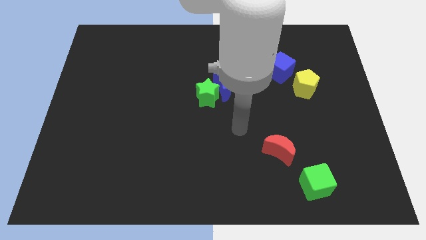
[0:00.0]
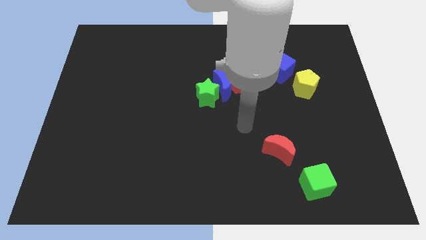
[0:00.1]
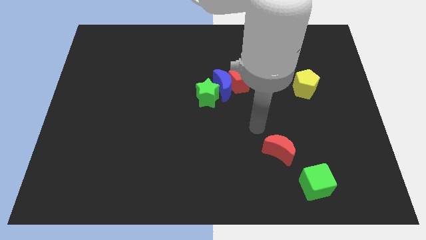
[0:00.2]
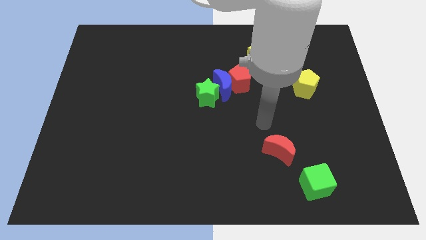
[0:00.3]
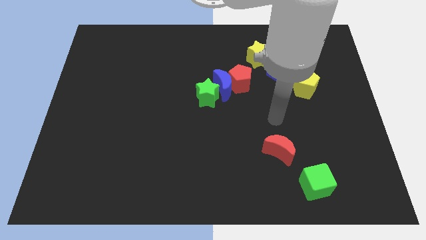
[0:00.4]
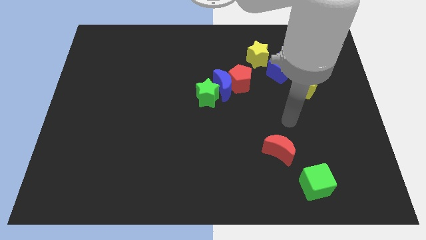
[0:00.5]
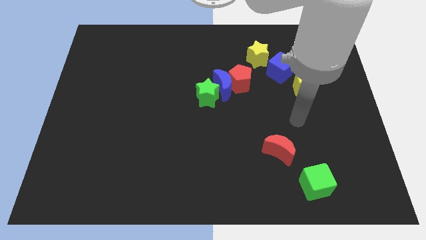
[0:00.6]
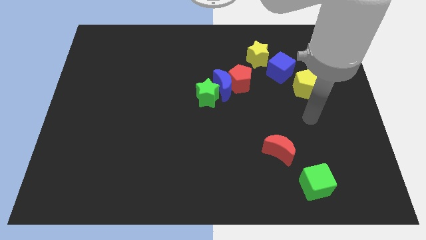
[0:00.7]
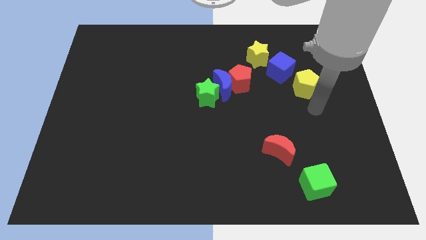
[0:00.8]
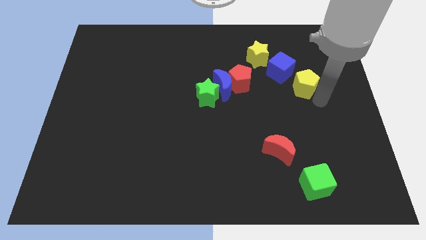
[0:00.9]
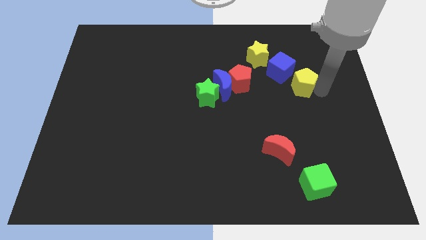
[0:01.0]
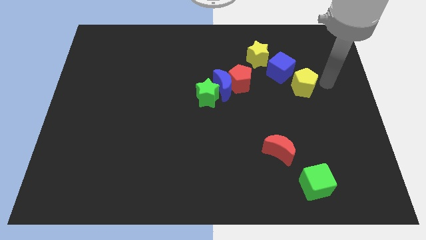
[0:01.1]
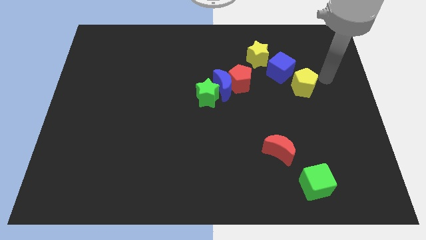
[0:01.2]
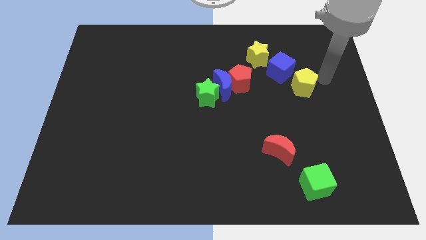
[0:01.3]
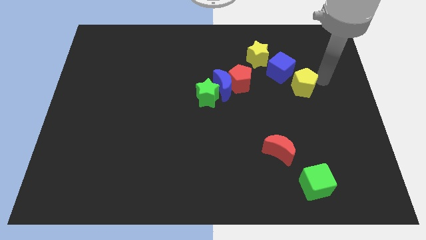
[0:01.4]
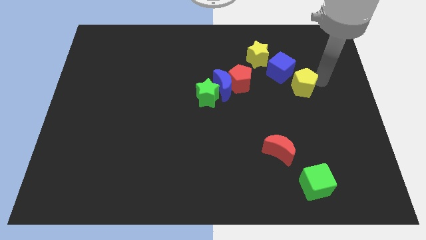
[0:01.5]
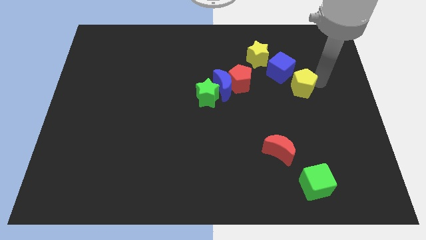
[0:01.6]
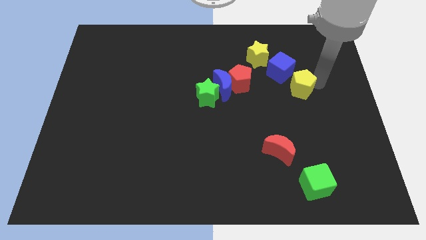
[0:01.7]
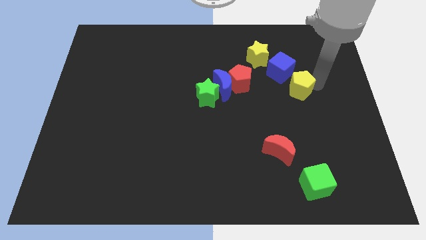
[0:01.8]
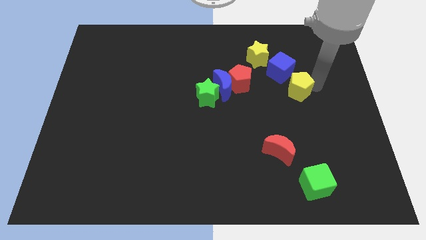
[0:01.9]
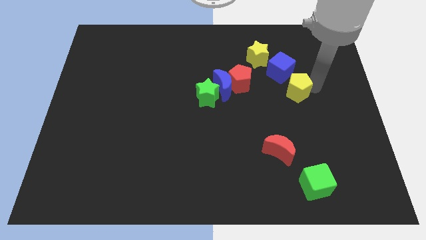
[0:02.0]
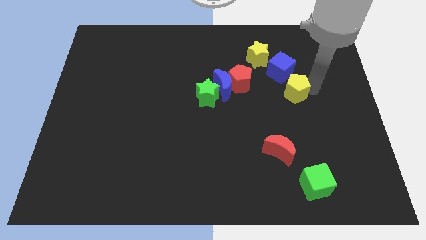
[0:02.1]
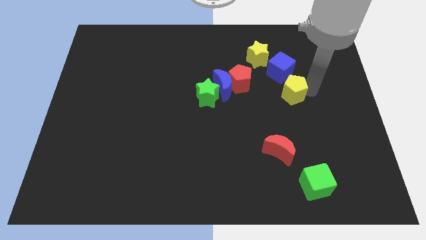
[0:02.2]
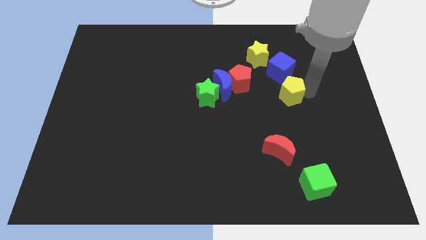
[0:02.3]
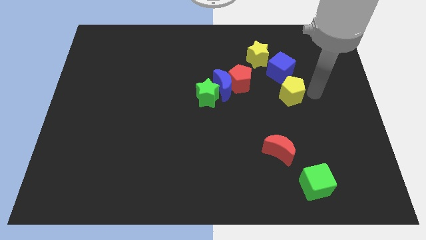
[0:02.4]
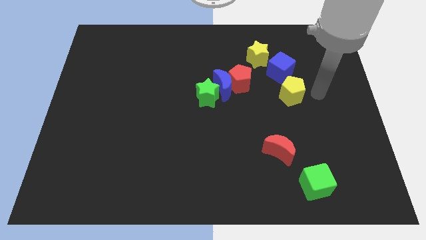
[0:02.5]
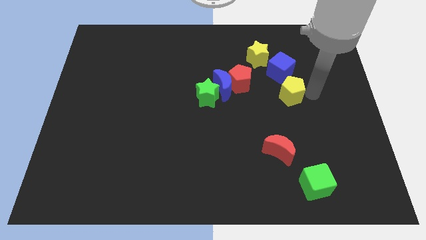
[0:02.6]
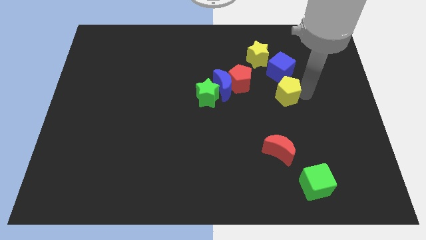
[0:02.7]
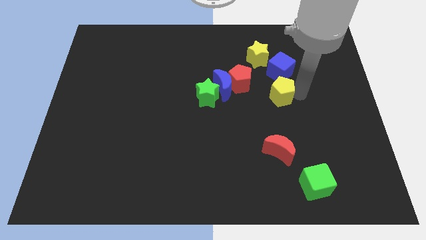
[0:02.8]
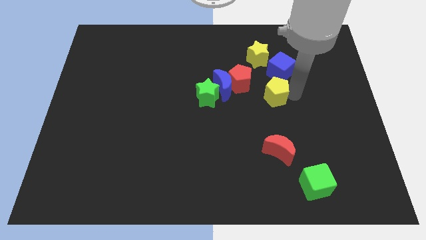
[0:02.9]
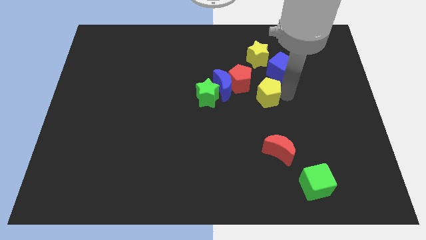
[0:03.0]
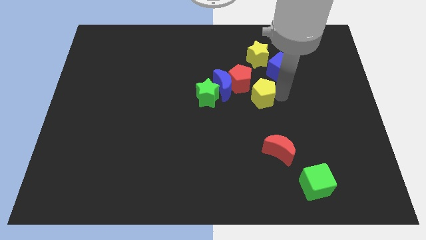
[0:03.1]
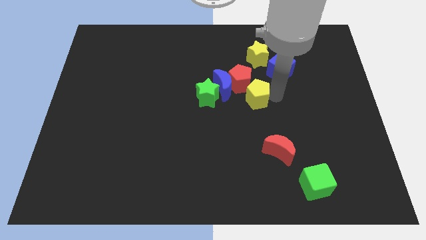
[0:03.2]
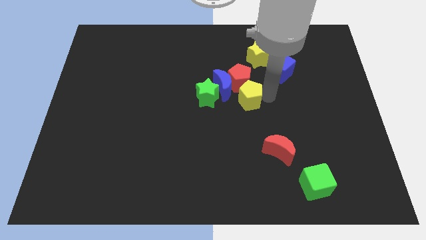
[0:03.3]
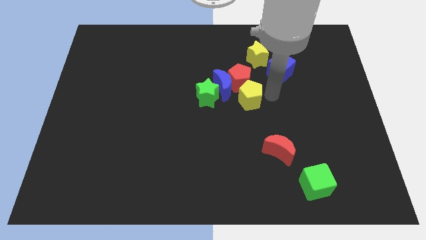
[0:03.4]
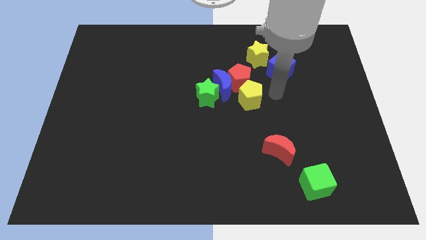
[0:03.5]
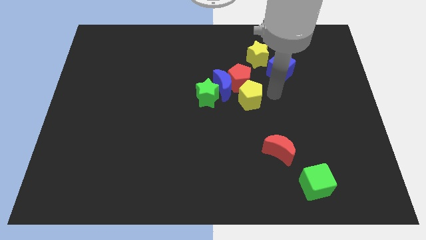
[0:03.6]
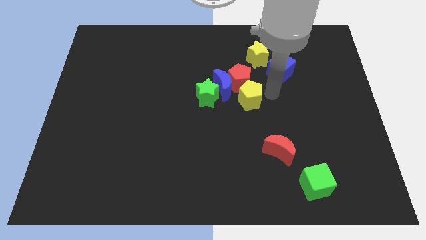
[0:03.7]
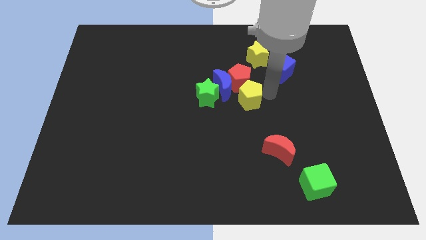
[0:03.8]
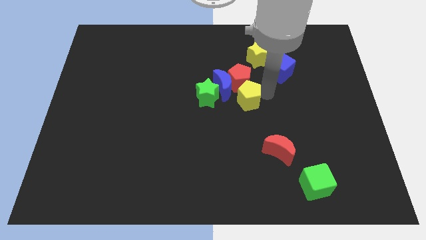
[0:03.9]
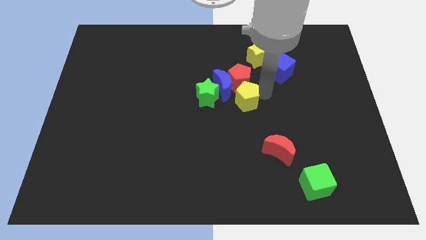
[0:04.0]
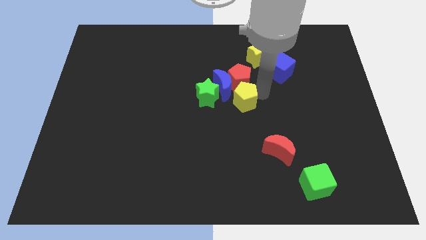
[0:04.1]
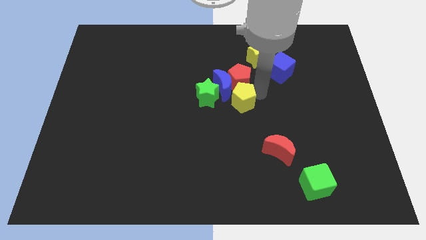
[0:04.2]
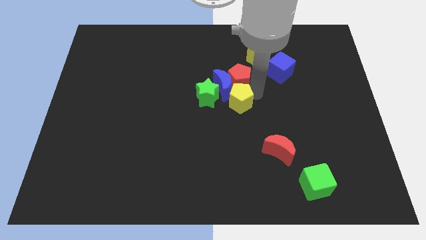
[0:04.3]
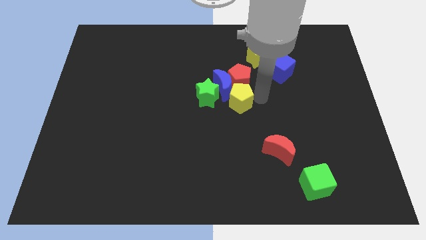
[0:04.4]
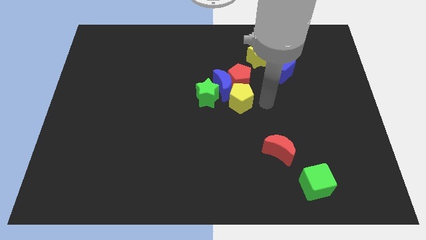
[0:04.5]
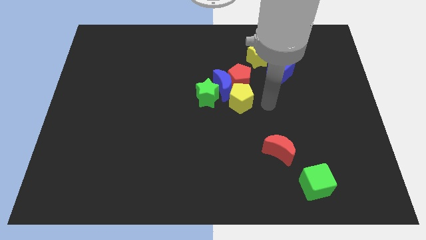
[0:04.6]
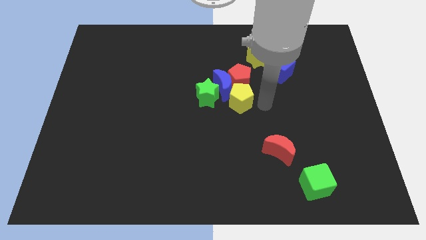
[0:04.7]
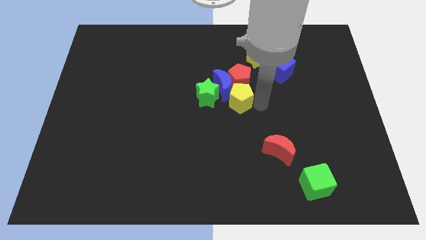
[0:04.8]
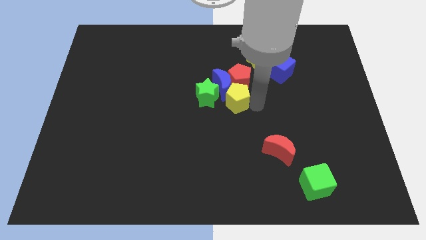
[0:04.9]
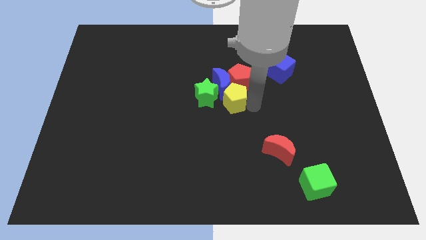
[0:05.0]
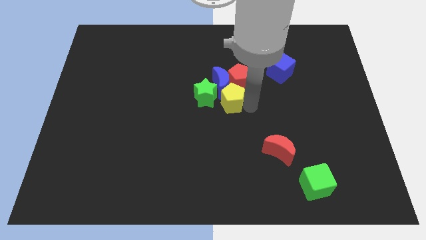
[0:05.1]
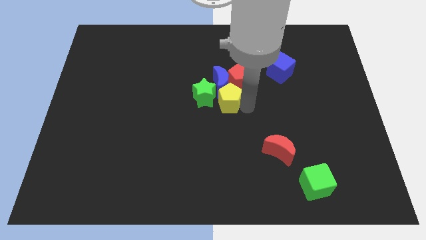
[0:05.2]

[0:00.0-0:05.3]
move the yellow pentagon next to the green star

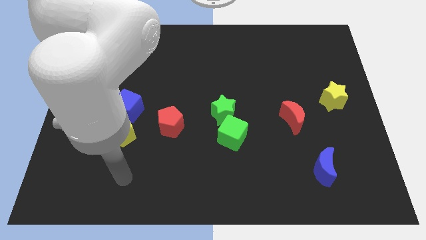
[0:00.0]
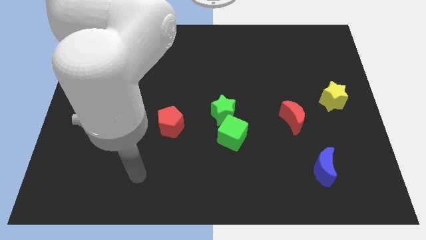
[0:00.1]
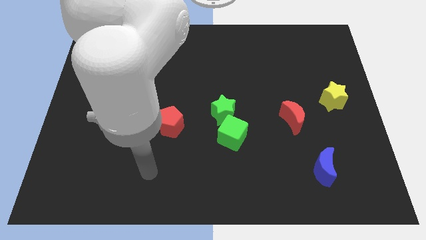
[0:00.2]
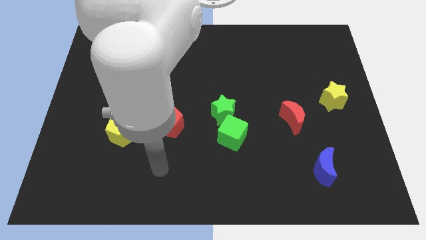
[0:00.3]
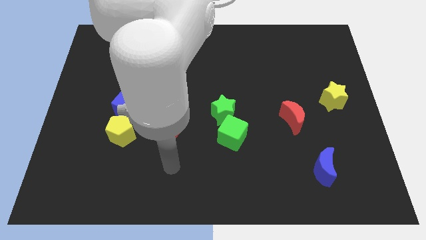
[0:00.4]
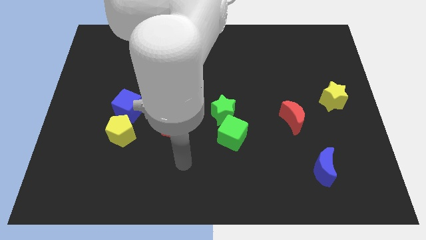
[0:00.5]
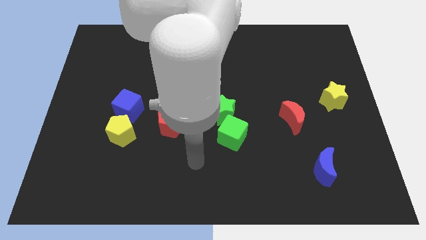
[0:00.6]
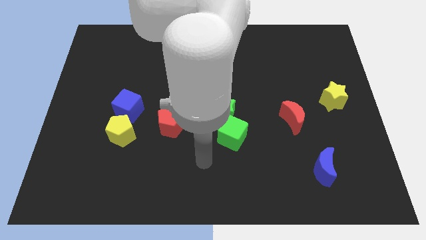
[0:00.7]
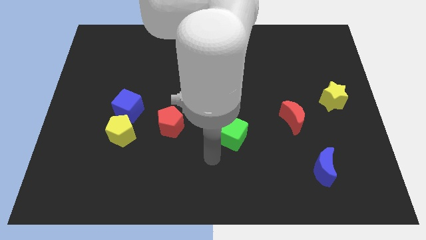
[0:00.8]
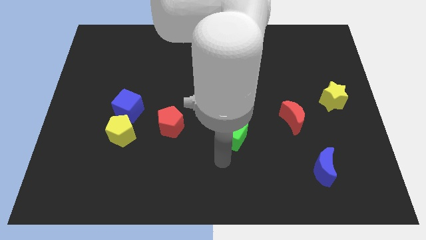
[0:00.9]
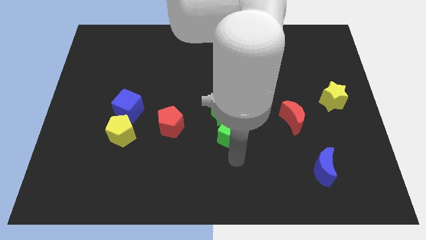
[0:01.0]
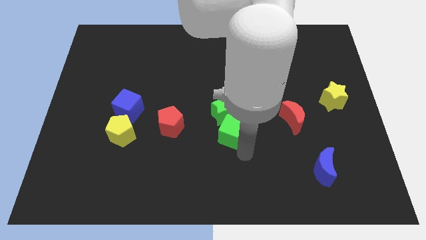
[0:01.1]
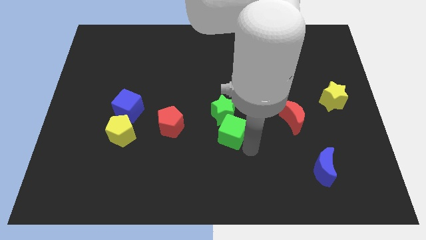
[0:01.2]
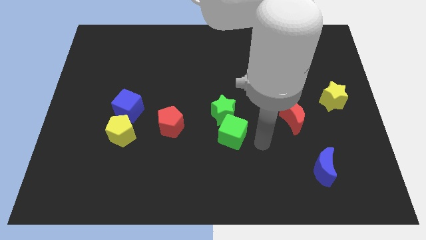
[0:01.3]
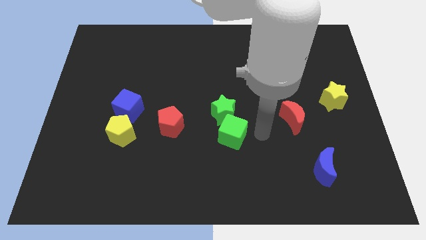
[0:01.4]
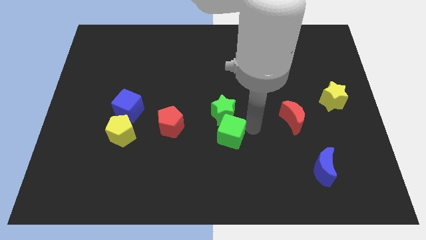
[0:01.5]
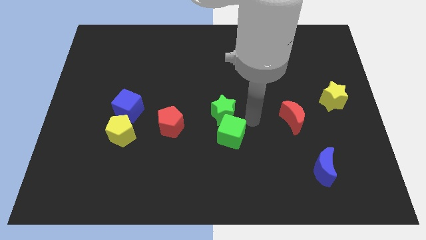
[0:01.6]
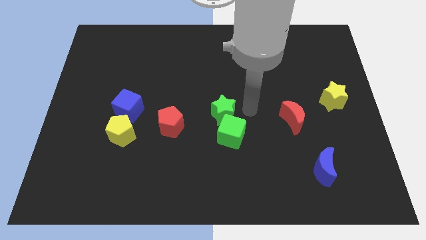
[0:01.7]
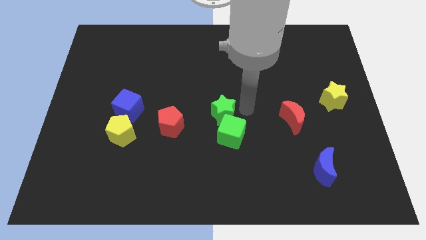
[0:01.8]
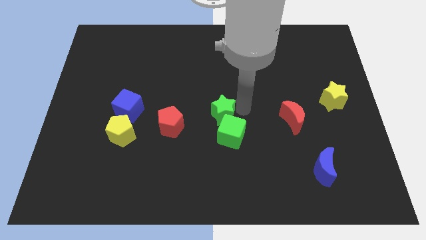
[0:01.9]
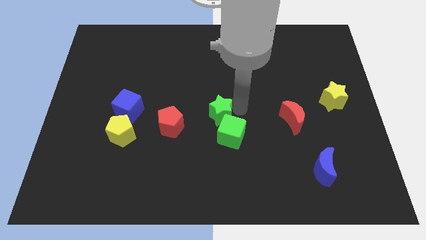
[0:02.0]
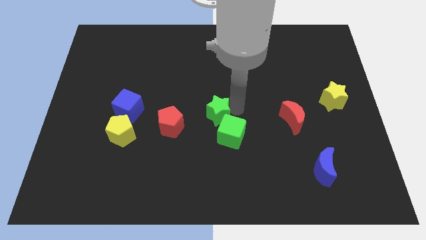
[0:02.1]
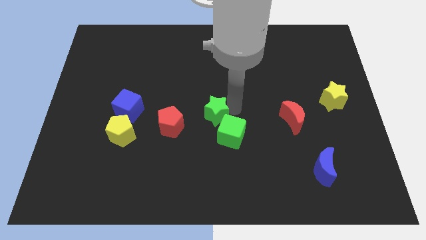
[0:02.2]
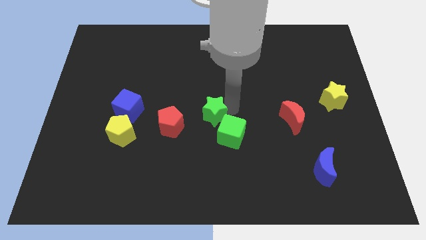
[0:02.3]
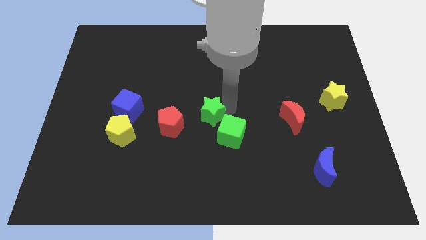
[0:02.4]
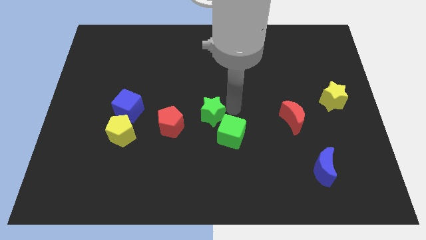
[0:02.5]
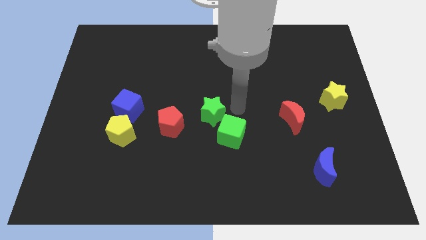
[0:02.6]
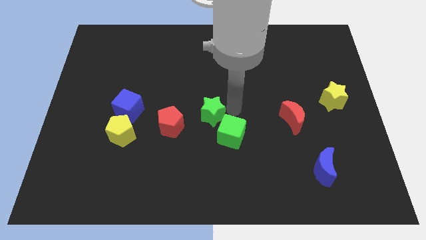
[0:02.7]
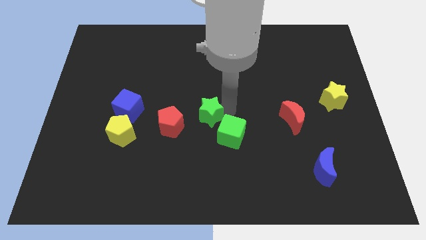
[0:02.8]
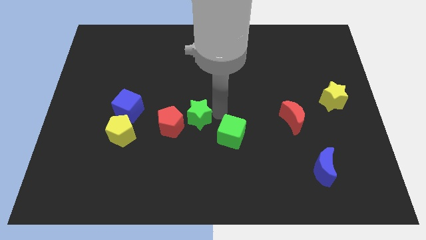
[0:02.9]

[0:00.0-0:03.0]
move the green star next to the red pentagon
